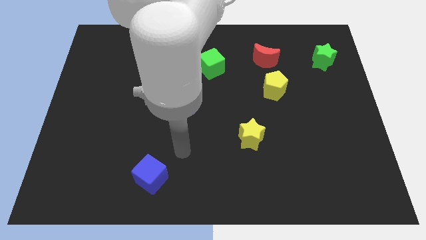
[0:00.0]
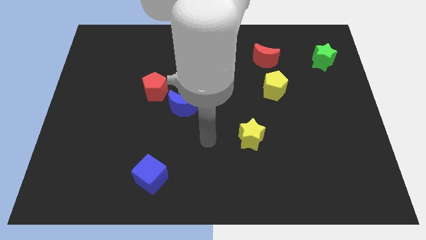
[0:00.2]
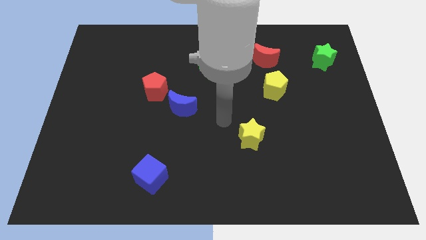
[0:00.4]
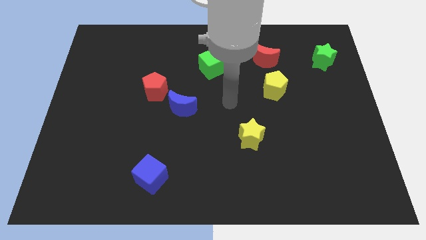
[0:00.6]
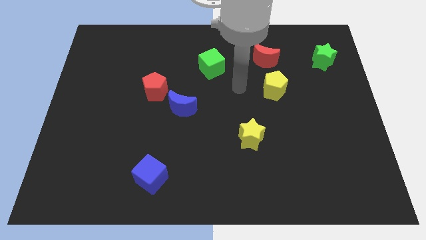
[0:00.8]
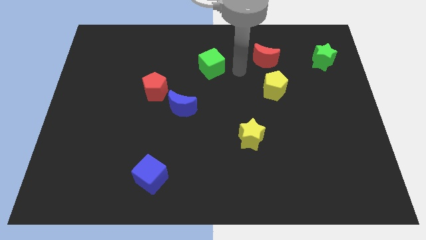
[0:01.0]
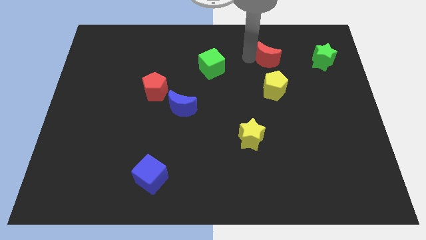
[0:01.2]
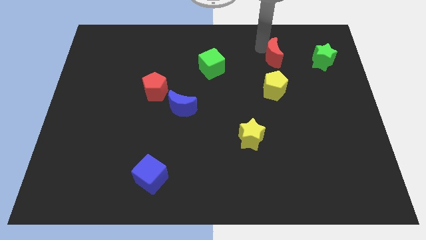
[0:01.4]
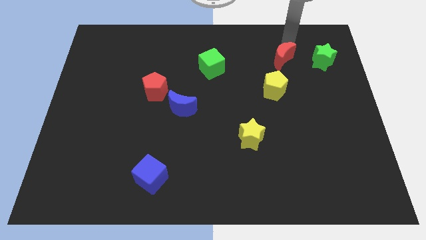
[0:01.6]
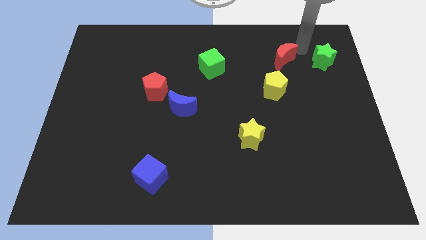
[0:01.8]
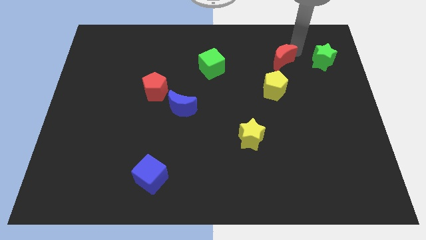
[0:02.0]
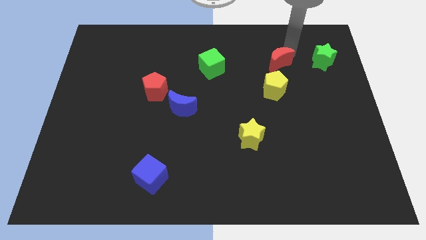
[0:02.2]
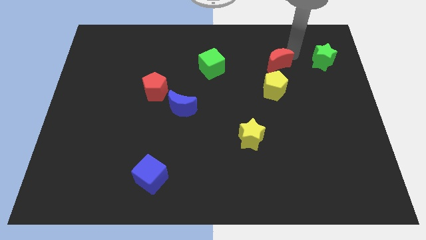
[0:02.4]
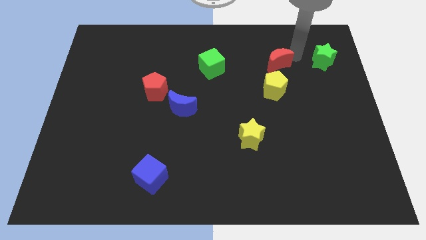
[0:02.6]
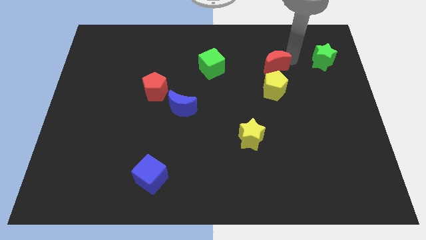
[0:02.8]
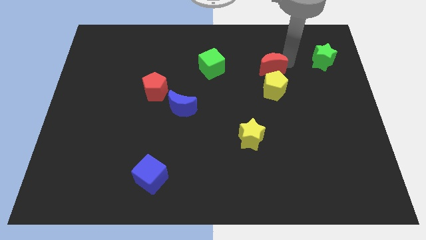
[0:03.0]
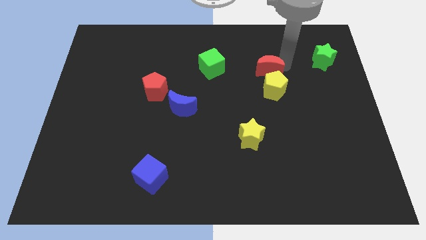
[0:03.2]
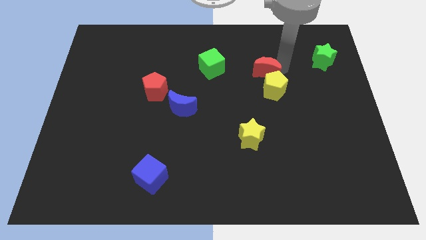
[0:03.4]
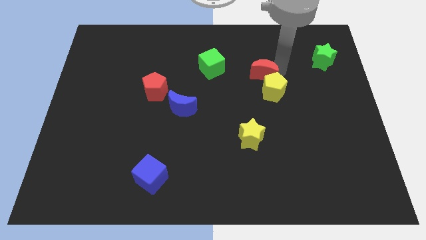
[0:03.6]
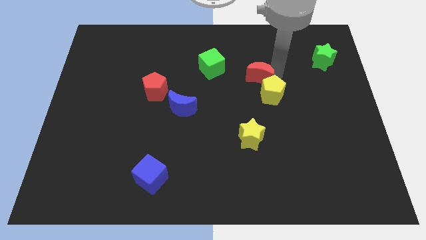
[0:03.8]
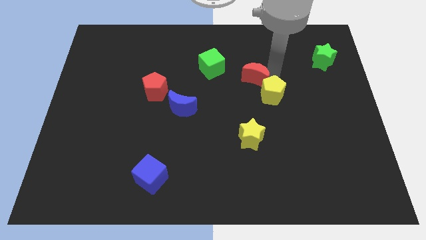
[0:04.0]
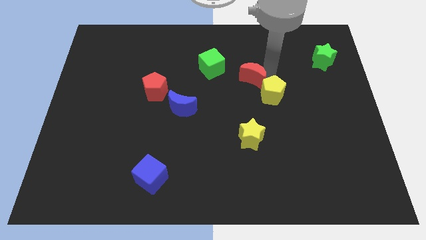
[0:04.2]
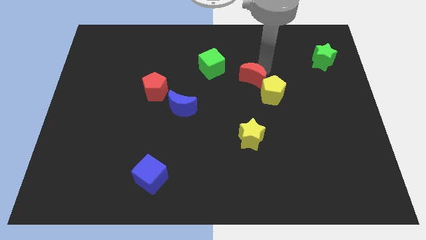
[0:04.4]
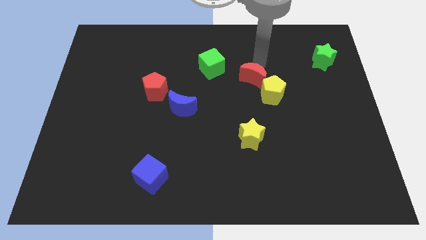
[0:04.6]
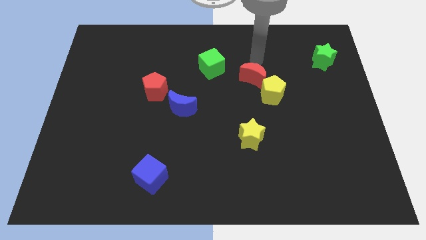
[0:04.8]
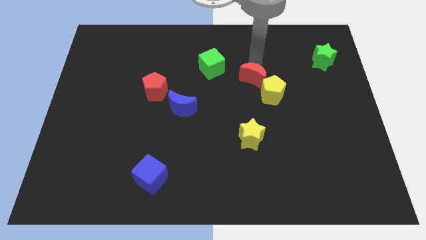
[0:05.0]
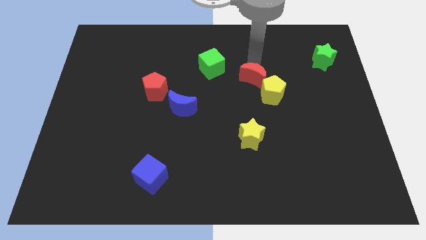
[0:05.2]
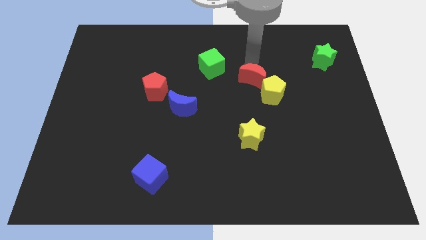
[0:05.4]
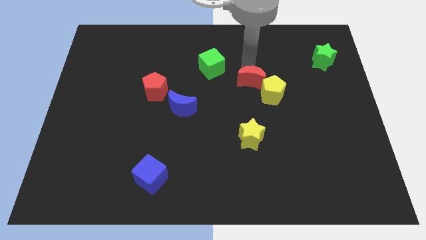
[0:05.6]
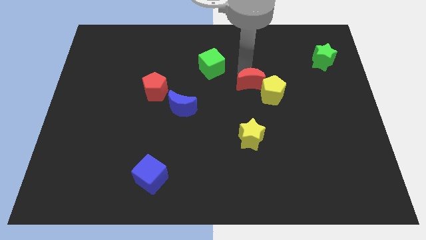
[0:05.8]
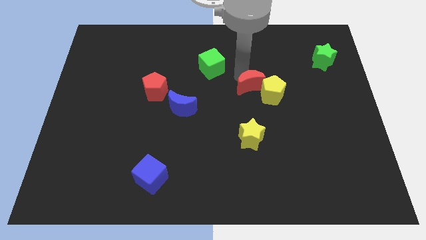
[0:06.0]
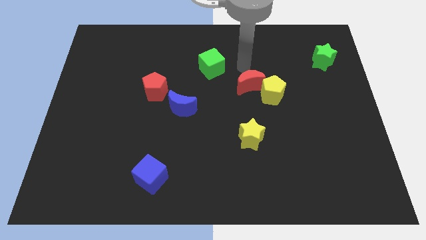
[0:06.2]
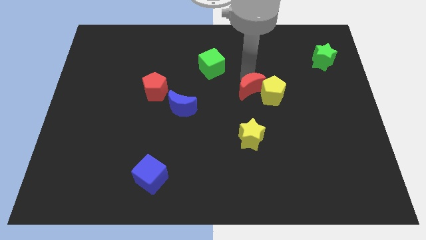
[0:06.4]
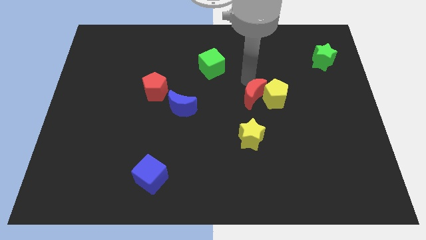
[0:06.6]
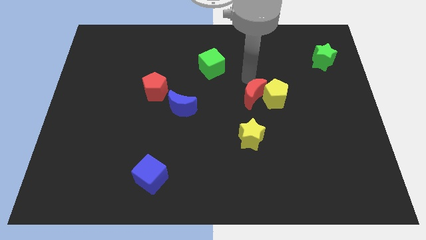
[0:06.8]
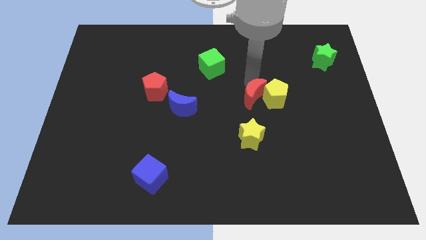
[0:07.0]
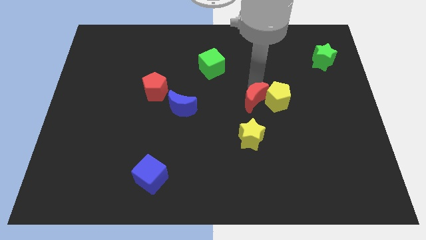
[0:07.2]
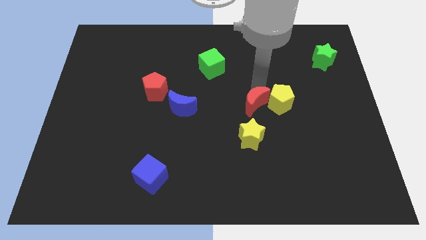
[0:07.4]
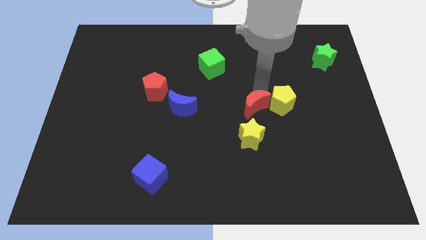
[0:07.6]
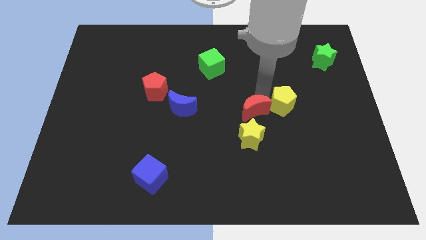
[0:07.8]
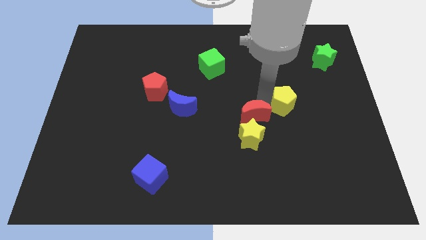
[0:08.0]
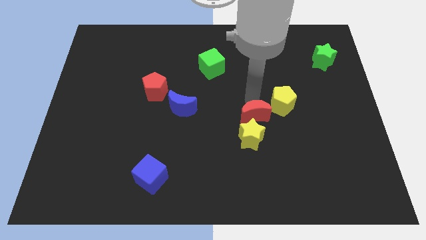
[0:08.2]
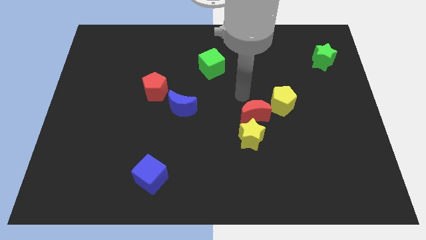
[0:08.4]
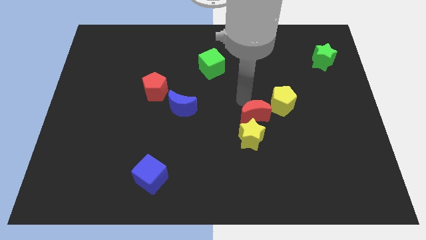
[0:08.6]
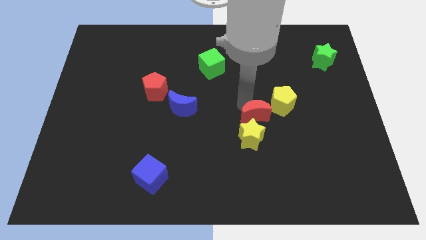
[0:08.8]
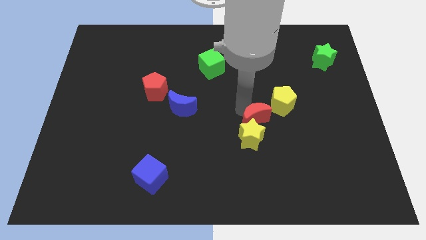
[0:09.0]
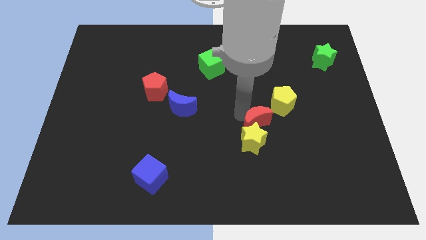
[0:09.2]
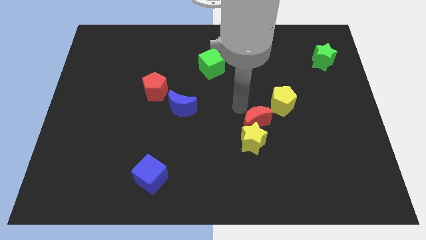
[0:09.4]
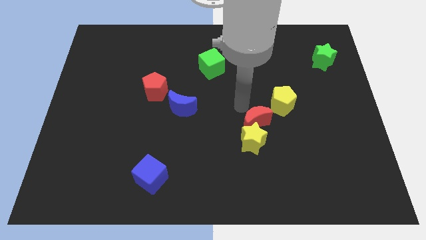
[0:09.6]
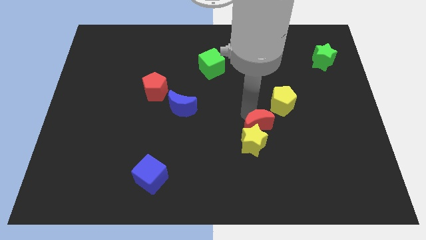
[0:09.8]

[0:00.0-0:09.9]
move the red moon downwards

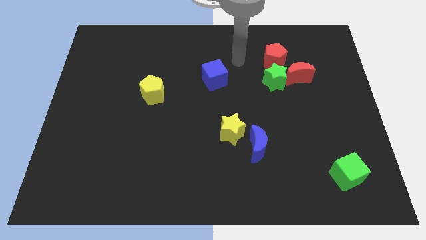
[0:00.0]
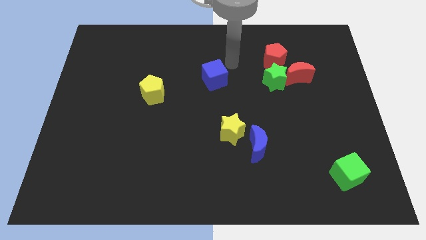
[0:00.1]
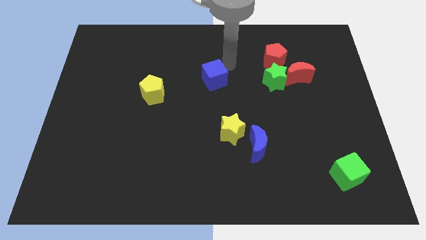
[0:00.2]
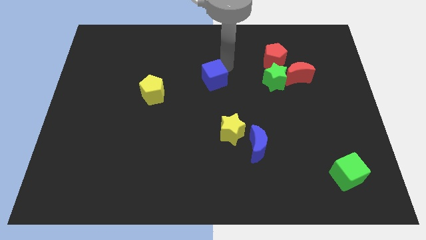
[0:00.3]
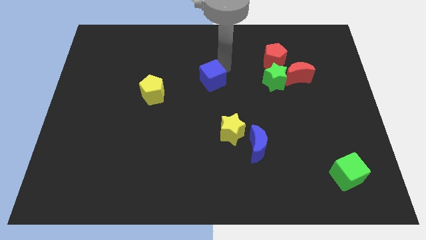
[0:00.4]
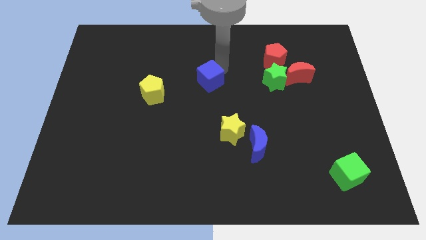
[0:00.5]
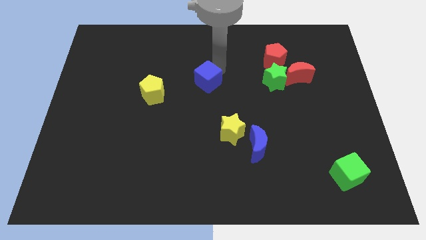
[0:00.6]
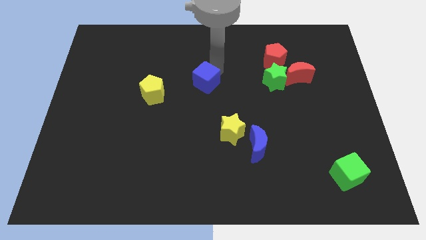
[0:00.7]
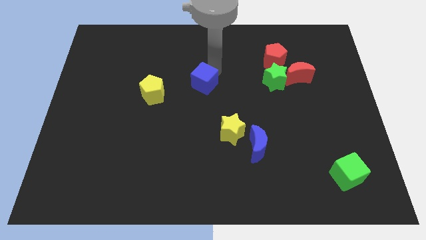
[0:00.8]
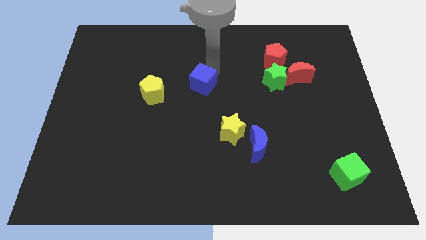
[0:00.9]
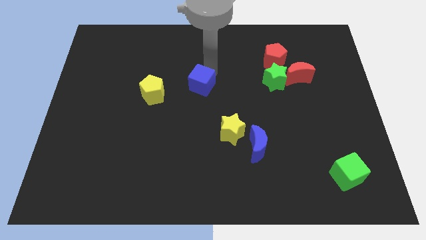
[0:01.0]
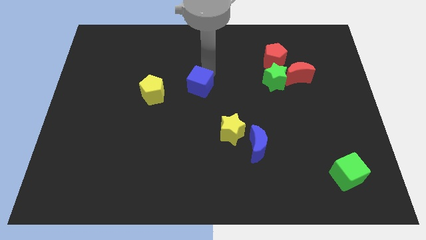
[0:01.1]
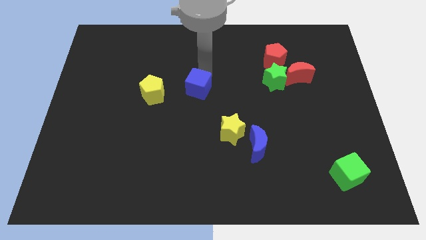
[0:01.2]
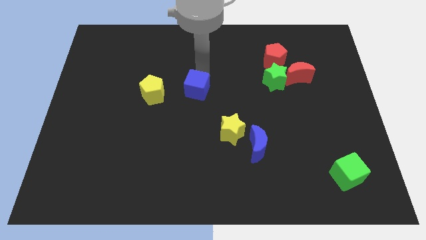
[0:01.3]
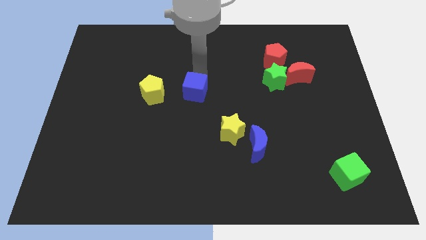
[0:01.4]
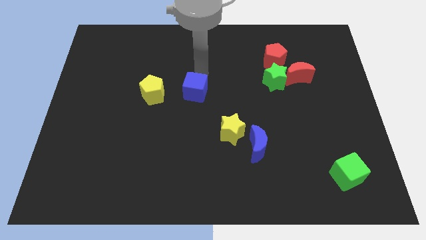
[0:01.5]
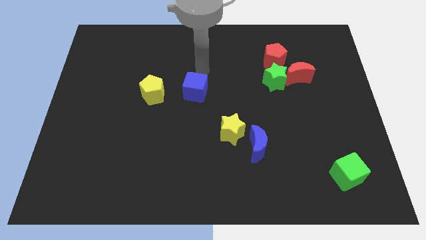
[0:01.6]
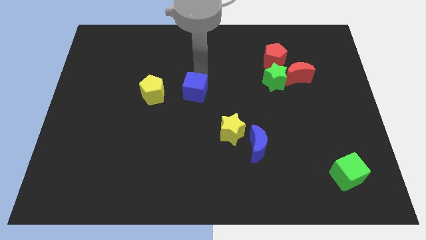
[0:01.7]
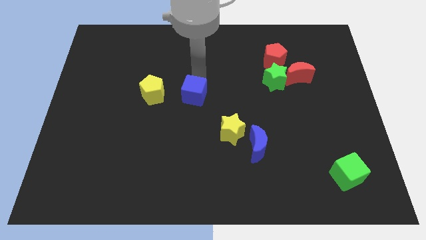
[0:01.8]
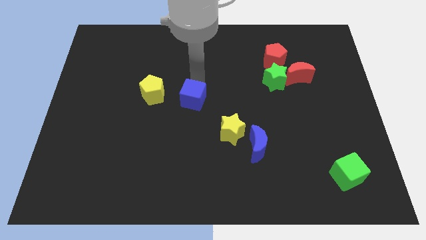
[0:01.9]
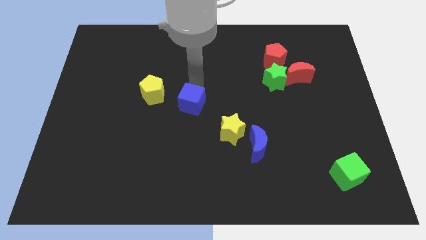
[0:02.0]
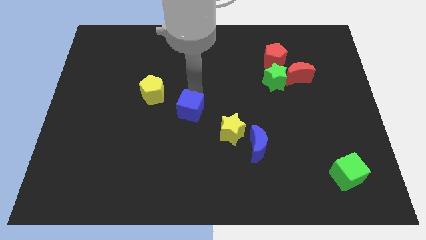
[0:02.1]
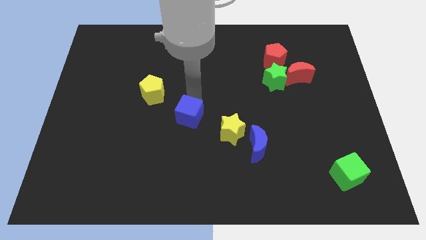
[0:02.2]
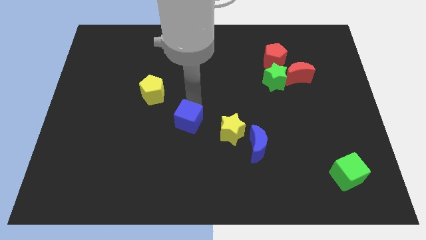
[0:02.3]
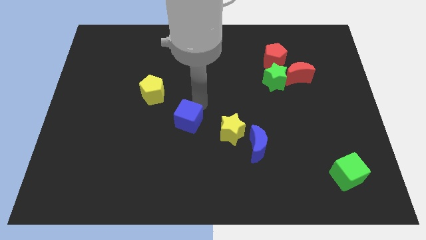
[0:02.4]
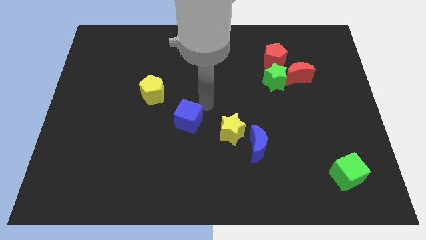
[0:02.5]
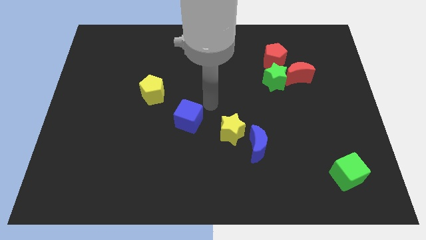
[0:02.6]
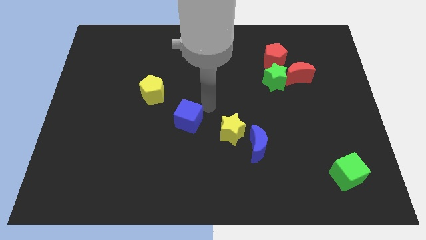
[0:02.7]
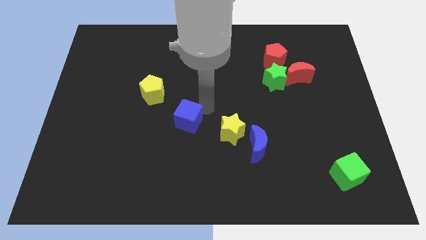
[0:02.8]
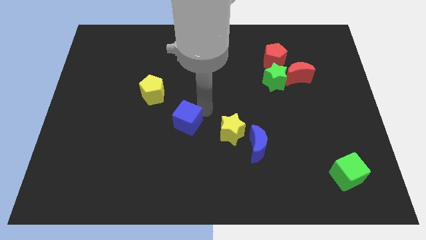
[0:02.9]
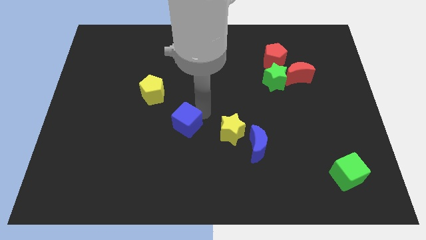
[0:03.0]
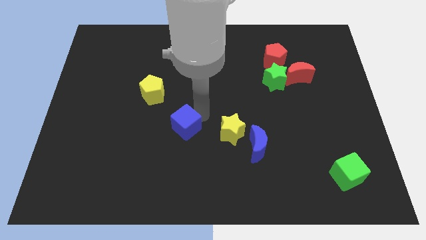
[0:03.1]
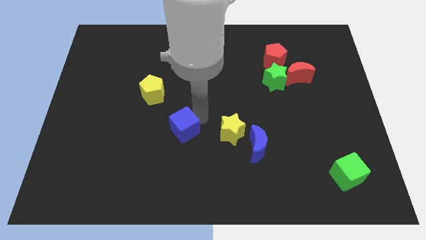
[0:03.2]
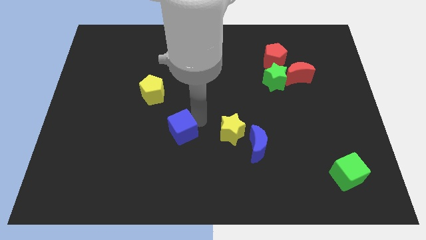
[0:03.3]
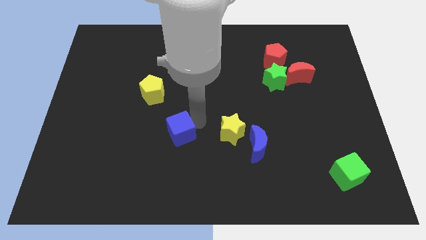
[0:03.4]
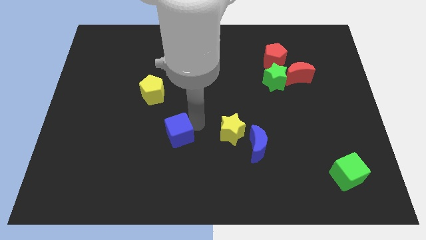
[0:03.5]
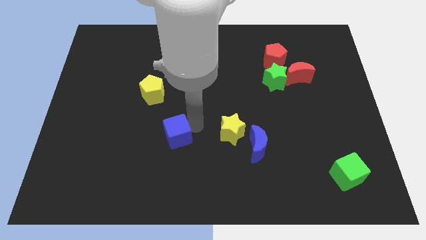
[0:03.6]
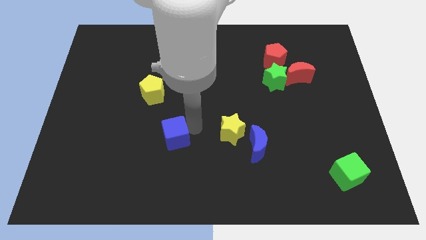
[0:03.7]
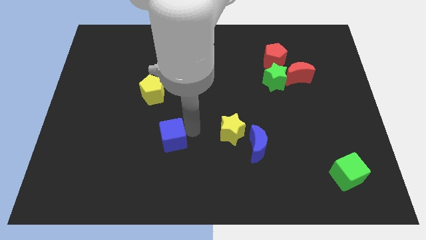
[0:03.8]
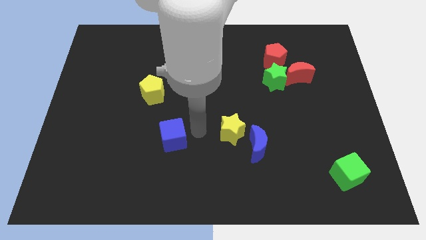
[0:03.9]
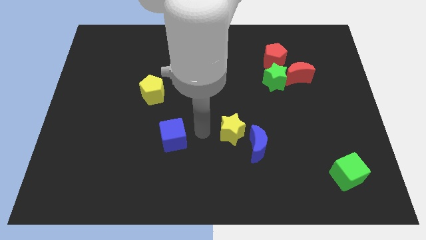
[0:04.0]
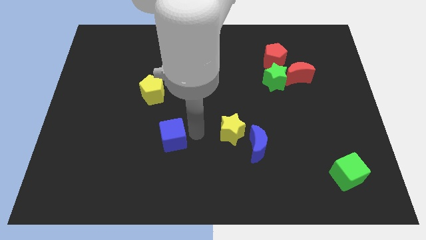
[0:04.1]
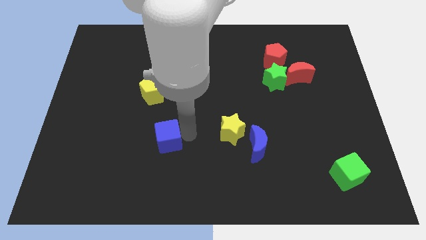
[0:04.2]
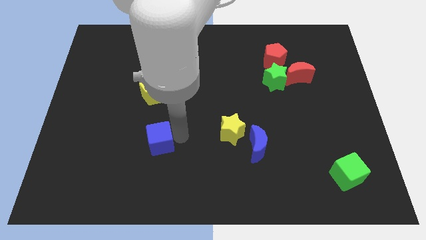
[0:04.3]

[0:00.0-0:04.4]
push the blue cube down and to the left
